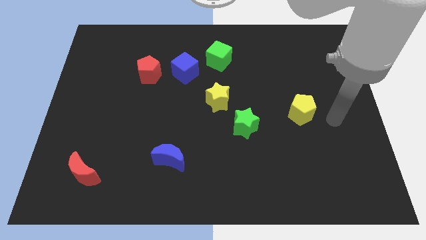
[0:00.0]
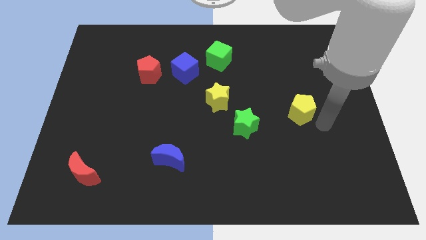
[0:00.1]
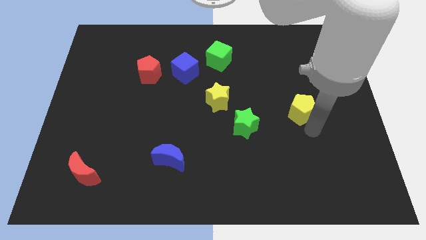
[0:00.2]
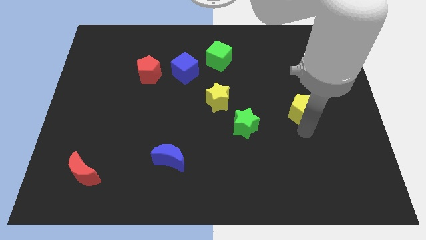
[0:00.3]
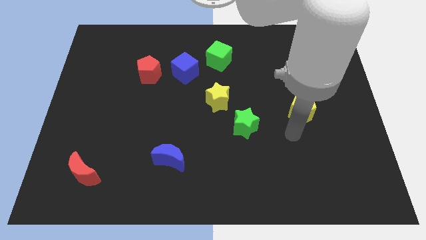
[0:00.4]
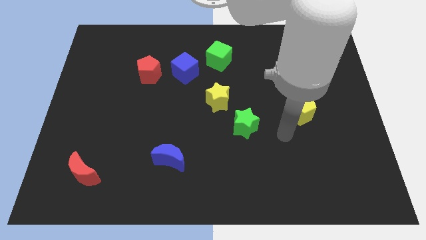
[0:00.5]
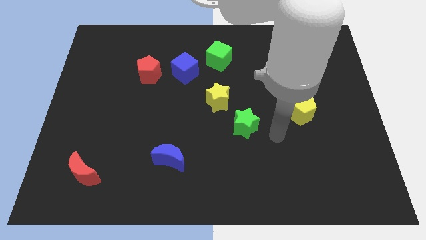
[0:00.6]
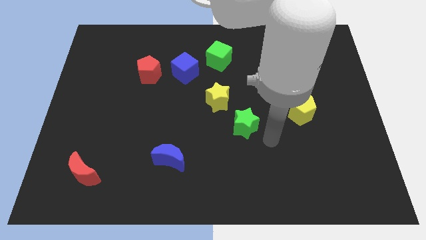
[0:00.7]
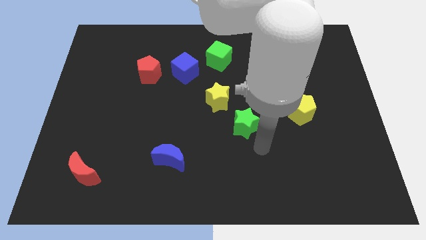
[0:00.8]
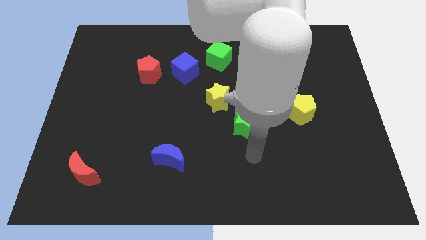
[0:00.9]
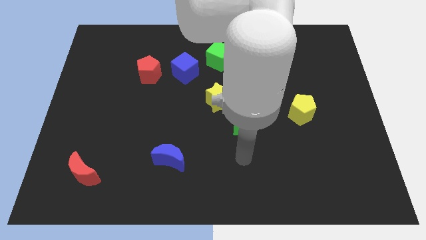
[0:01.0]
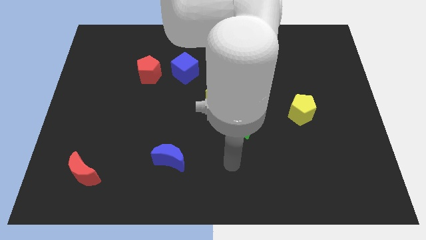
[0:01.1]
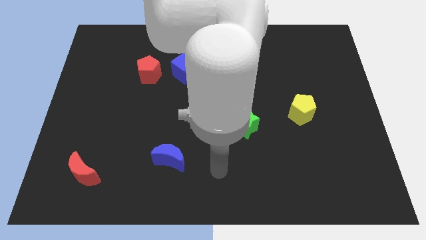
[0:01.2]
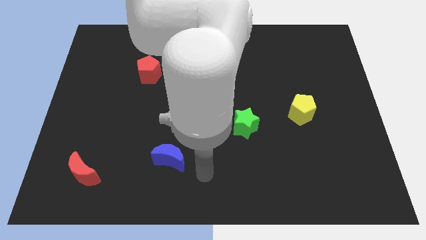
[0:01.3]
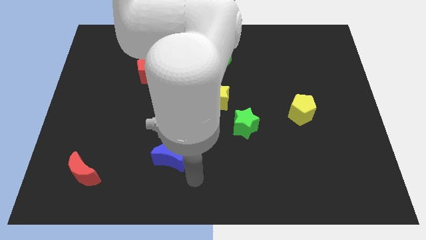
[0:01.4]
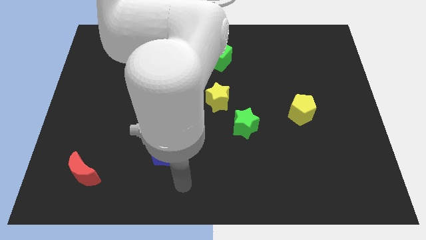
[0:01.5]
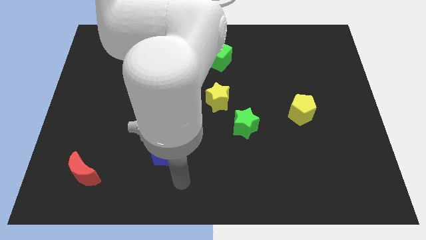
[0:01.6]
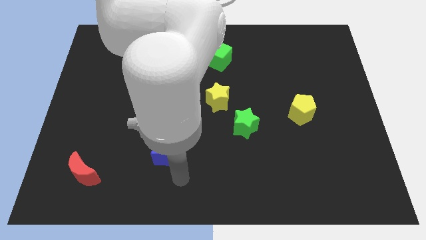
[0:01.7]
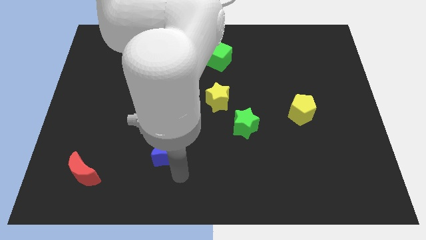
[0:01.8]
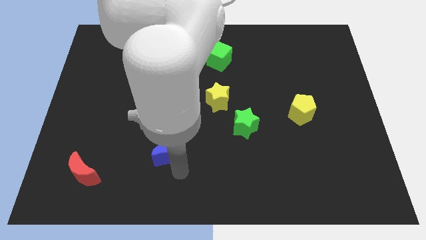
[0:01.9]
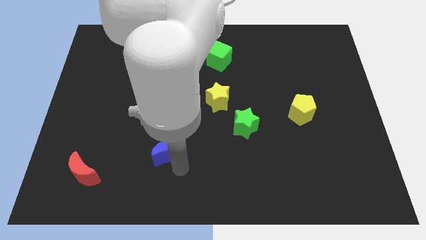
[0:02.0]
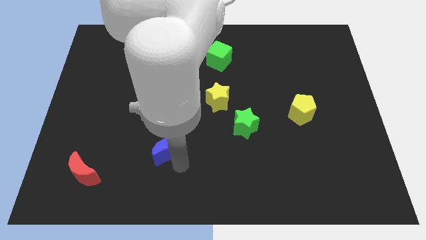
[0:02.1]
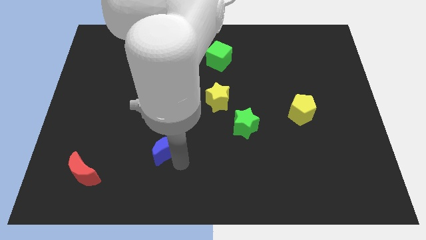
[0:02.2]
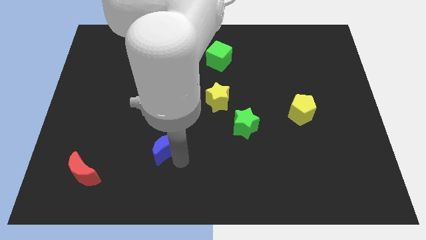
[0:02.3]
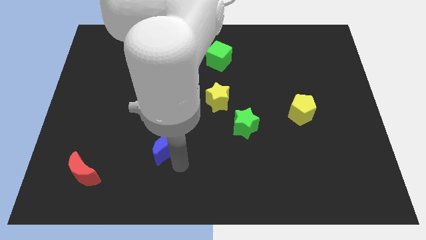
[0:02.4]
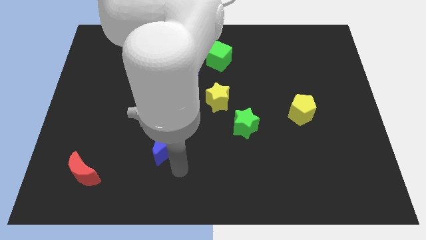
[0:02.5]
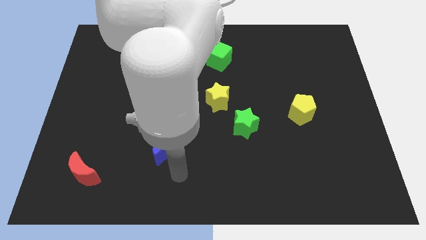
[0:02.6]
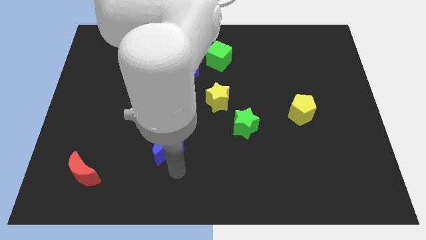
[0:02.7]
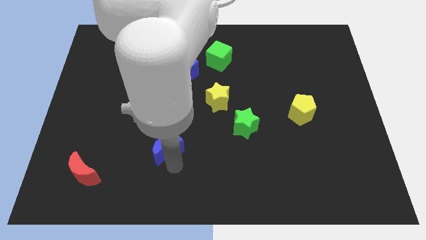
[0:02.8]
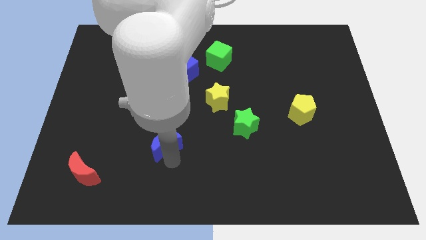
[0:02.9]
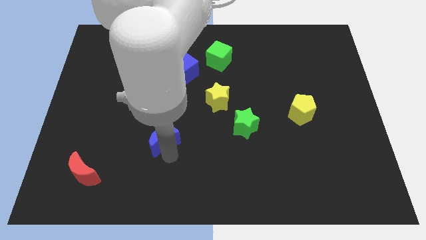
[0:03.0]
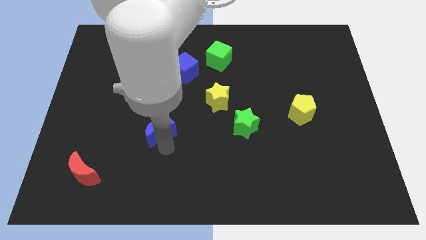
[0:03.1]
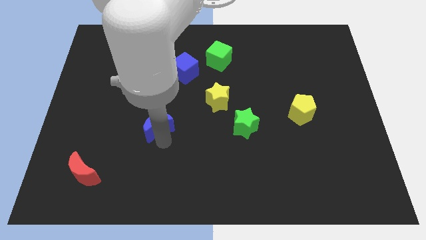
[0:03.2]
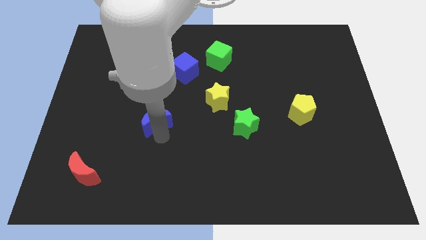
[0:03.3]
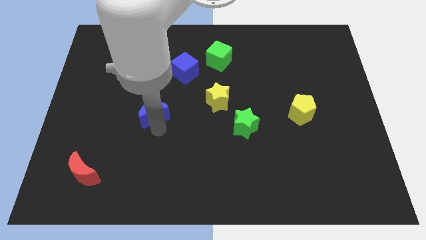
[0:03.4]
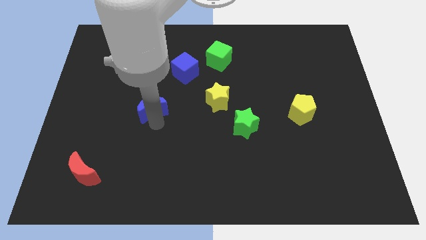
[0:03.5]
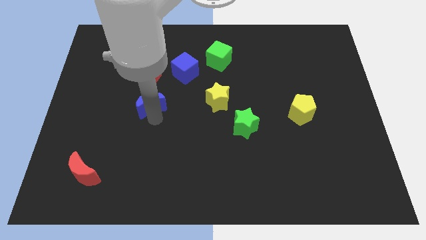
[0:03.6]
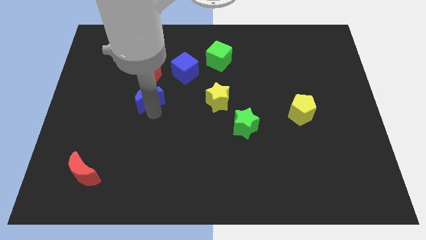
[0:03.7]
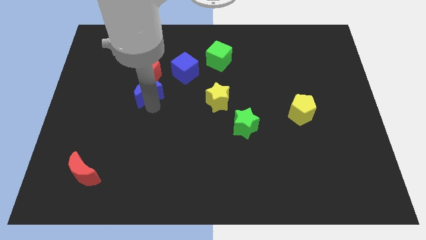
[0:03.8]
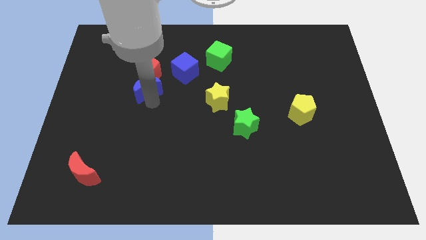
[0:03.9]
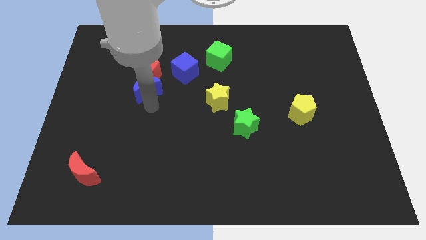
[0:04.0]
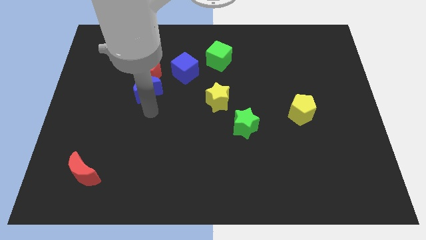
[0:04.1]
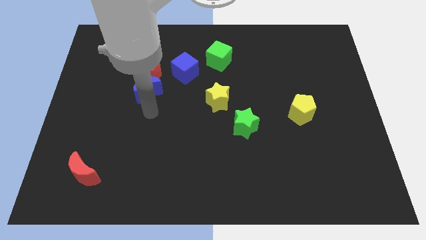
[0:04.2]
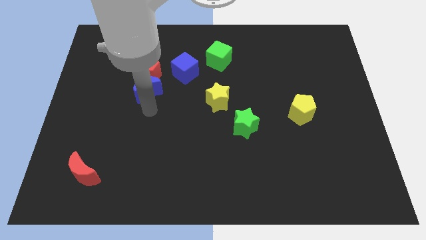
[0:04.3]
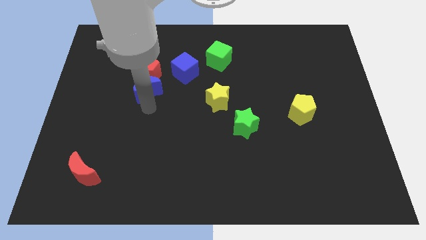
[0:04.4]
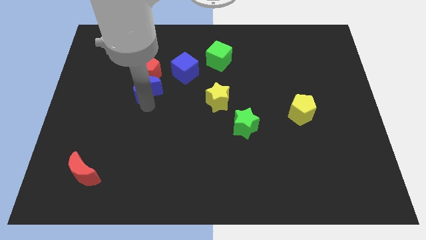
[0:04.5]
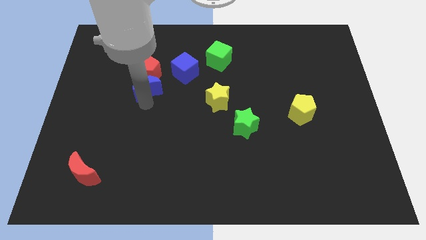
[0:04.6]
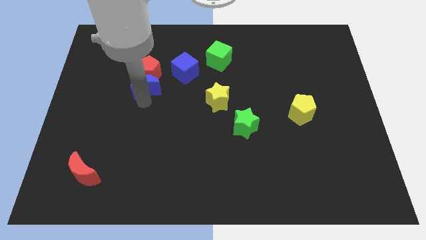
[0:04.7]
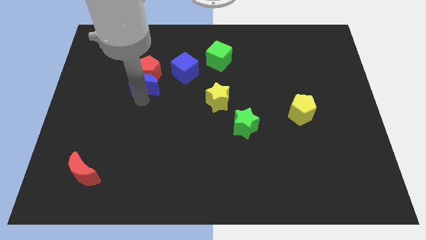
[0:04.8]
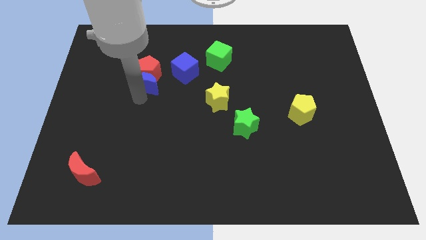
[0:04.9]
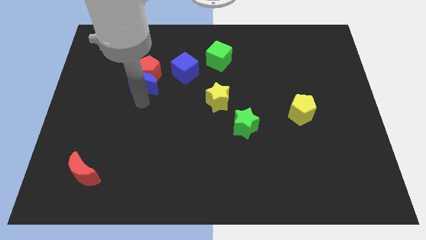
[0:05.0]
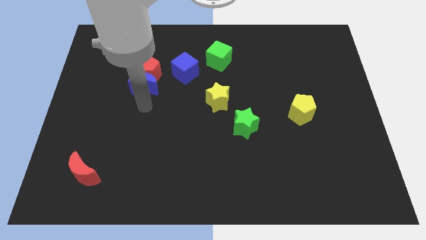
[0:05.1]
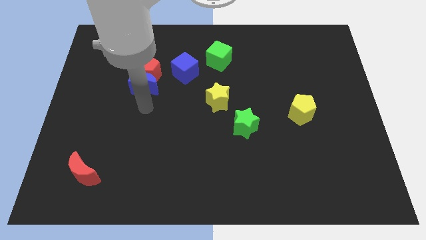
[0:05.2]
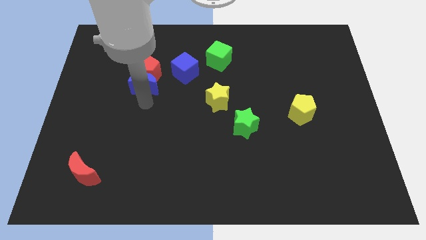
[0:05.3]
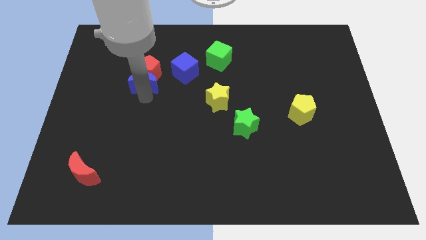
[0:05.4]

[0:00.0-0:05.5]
push the blue moon to the left of the blue cube
